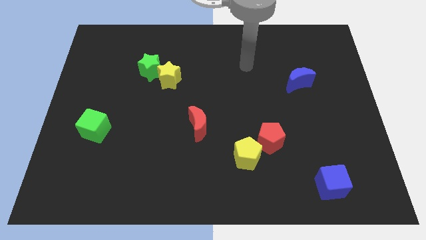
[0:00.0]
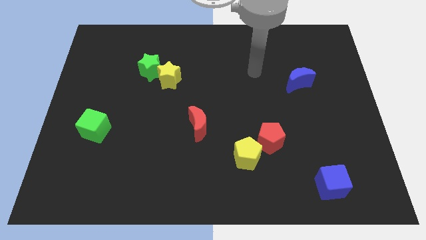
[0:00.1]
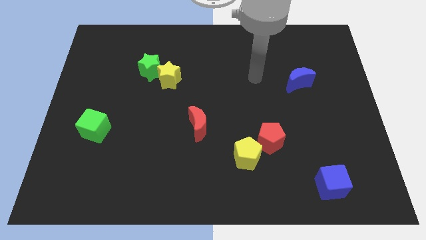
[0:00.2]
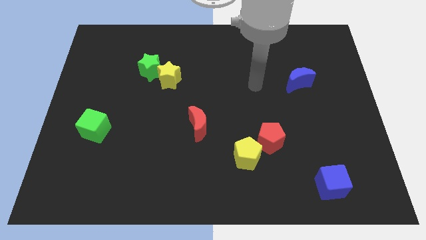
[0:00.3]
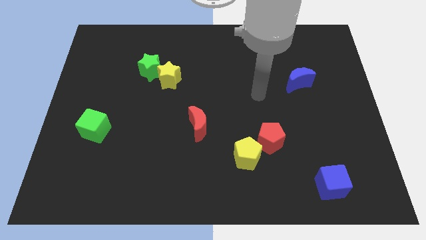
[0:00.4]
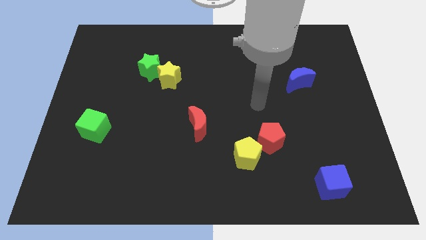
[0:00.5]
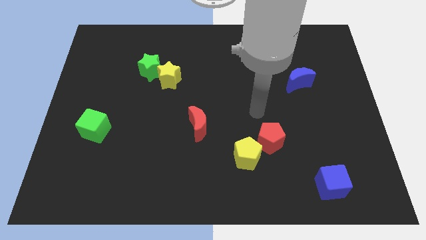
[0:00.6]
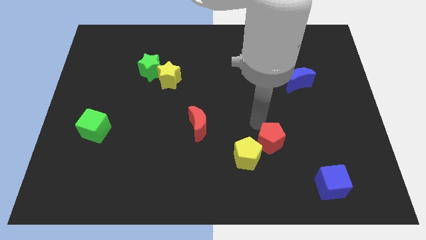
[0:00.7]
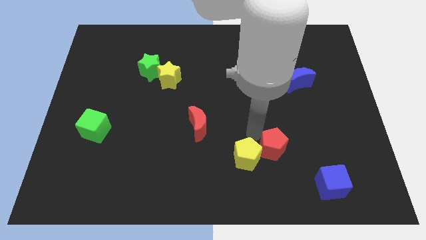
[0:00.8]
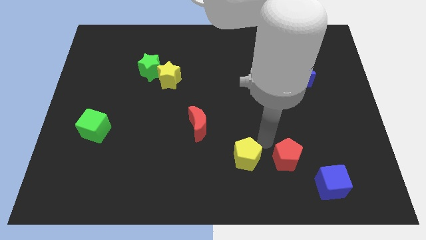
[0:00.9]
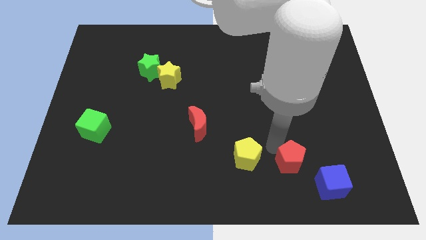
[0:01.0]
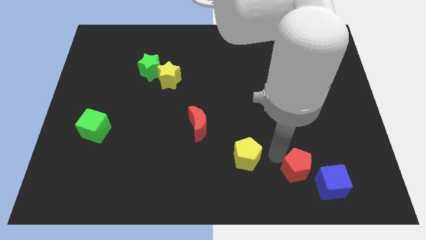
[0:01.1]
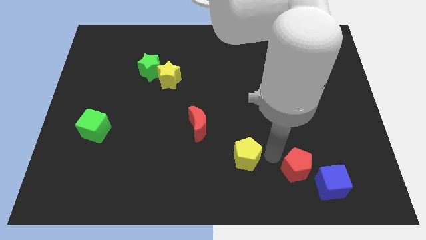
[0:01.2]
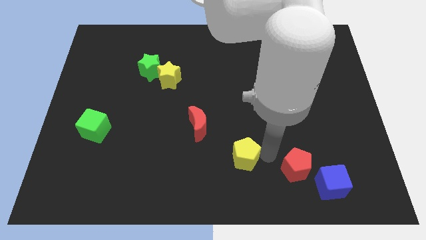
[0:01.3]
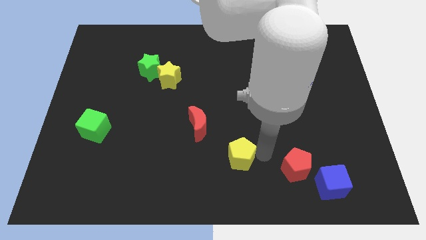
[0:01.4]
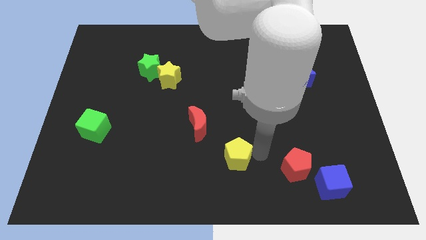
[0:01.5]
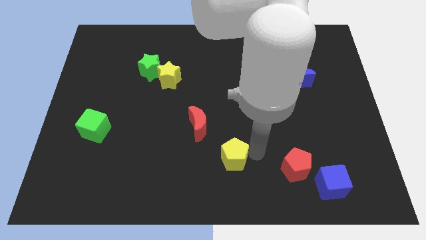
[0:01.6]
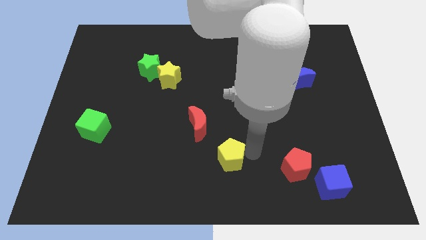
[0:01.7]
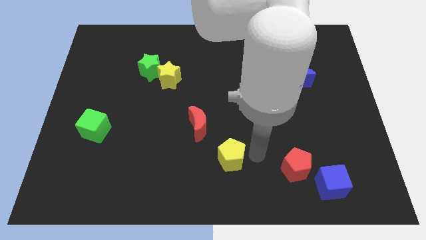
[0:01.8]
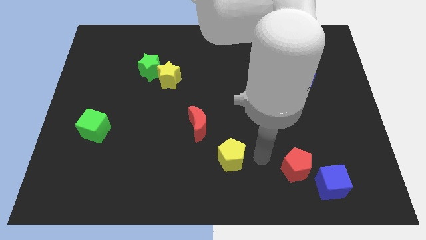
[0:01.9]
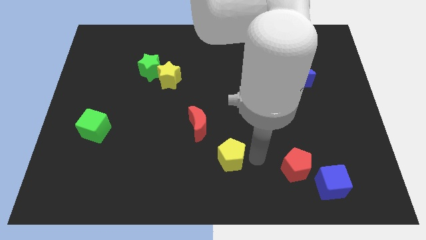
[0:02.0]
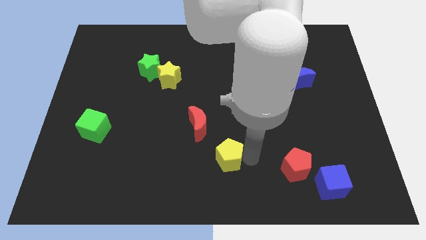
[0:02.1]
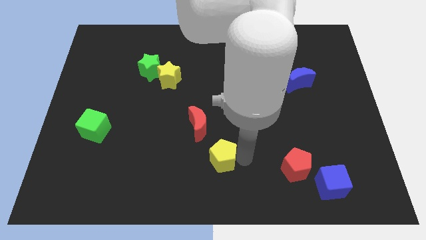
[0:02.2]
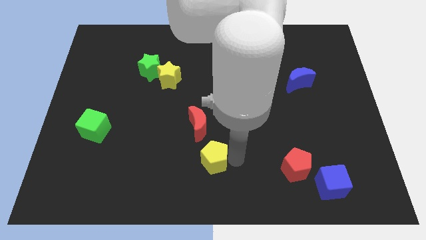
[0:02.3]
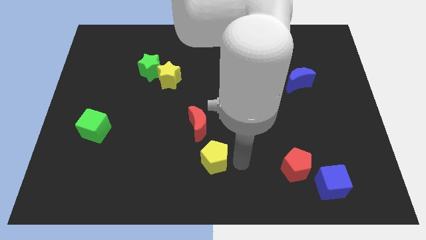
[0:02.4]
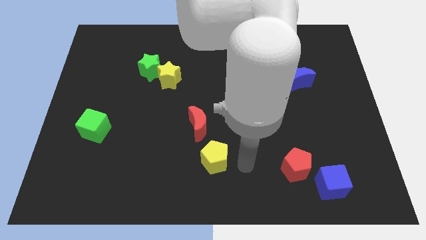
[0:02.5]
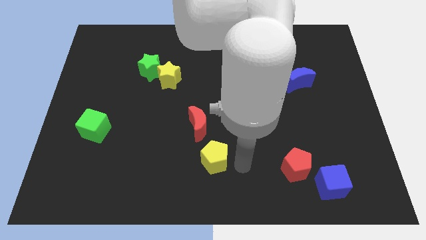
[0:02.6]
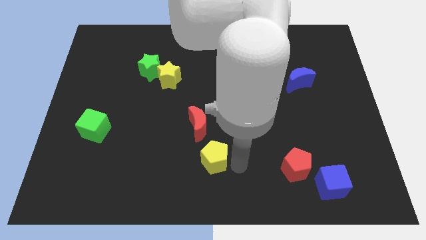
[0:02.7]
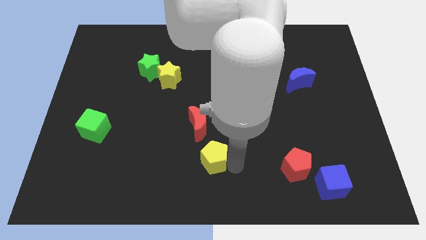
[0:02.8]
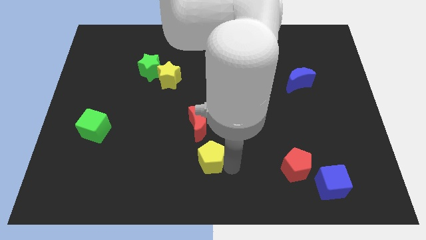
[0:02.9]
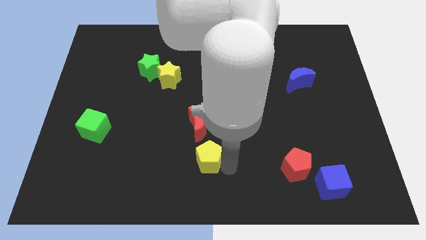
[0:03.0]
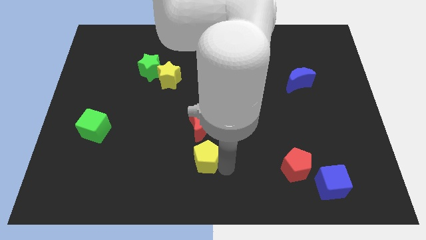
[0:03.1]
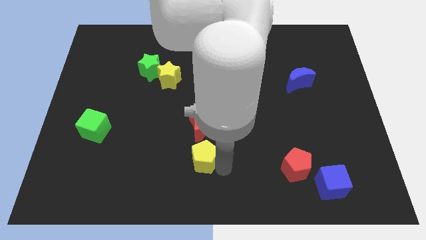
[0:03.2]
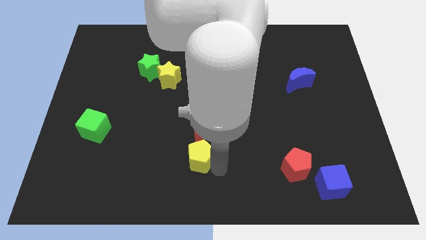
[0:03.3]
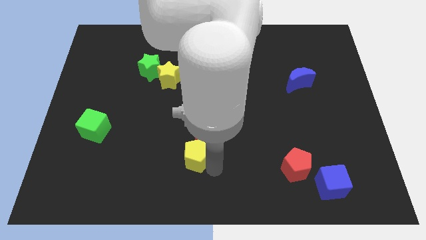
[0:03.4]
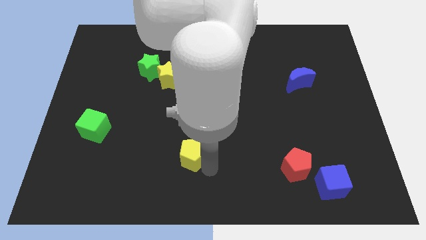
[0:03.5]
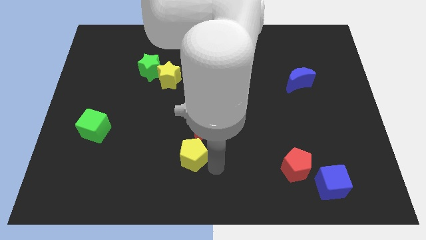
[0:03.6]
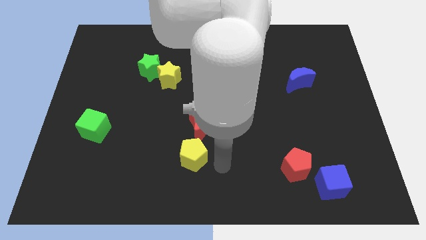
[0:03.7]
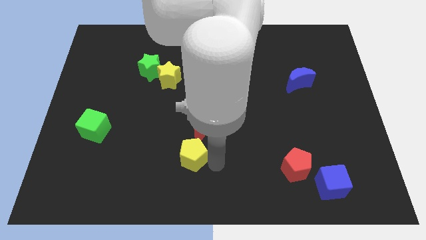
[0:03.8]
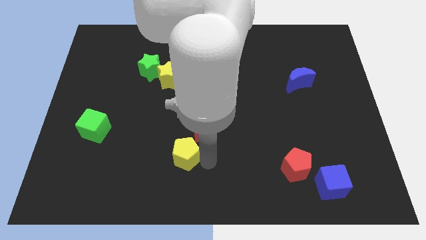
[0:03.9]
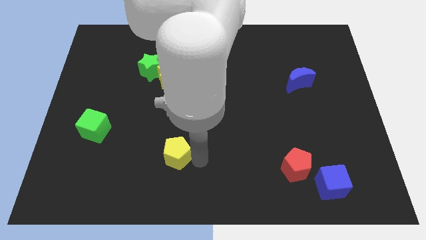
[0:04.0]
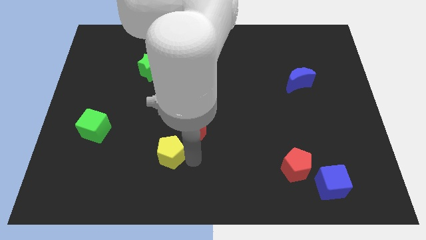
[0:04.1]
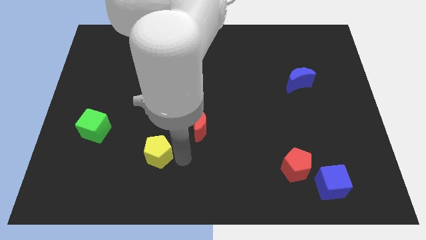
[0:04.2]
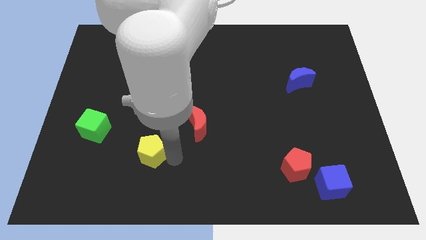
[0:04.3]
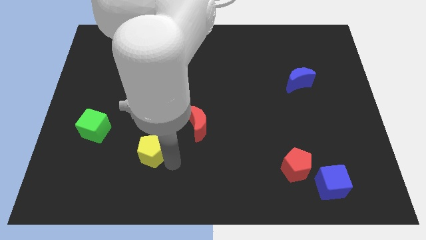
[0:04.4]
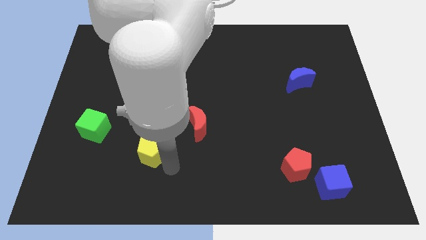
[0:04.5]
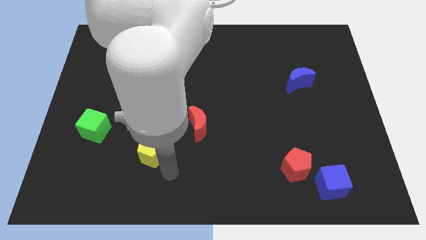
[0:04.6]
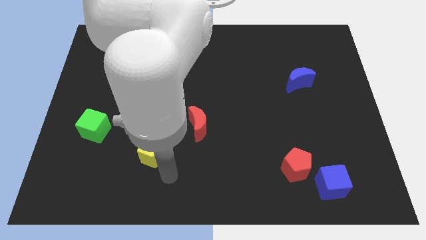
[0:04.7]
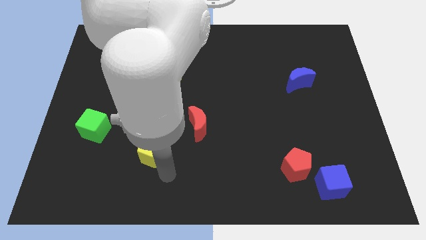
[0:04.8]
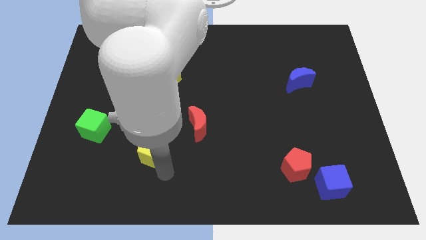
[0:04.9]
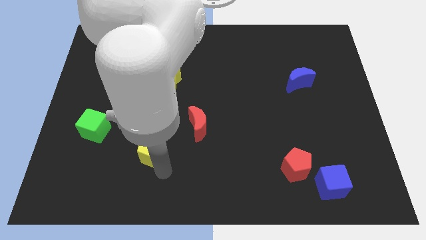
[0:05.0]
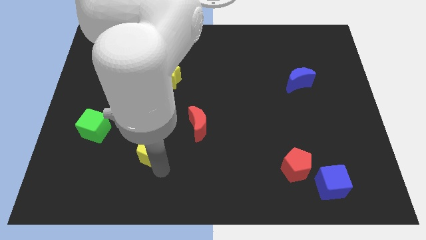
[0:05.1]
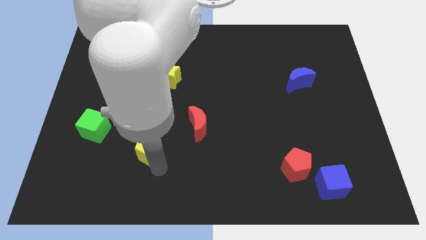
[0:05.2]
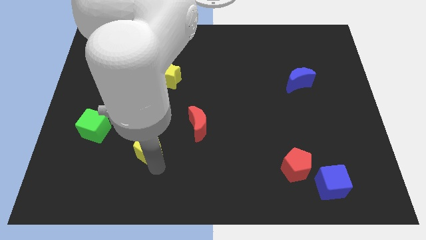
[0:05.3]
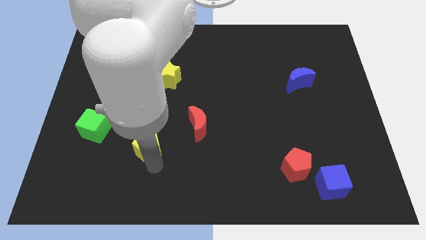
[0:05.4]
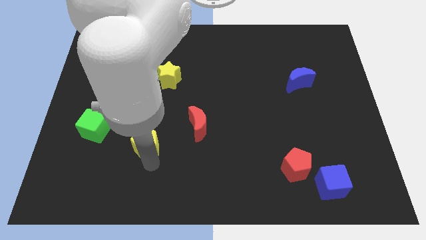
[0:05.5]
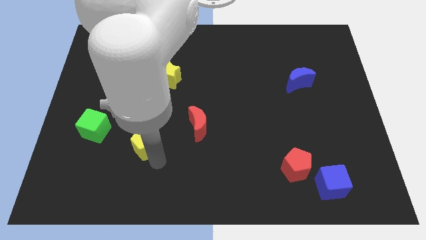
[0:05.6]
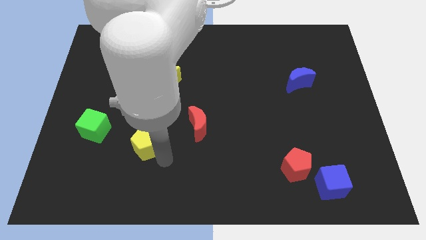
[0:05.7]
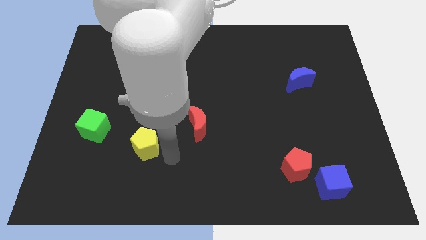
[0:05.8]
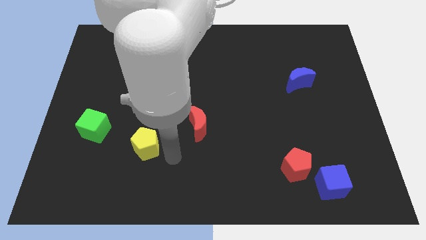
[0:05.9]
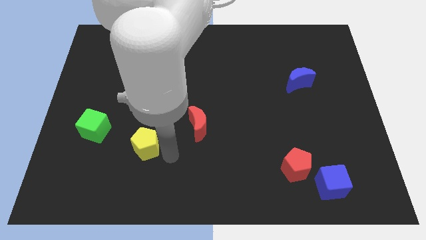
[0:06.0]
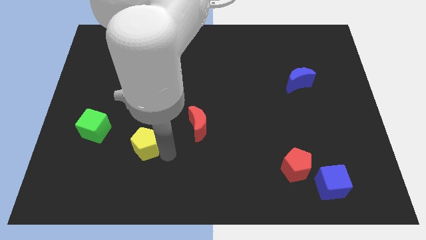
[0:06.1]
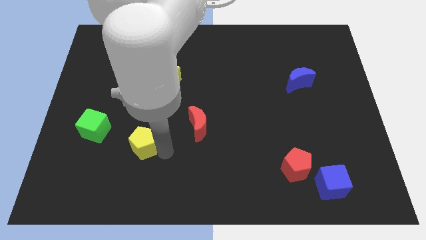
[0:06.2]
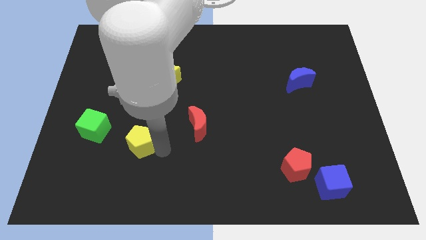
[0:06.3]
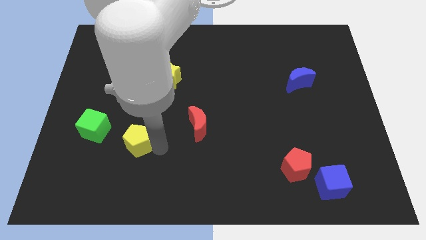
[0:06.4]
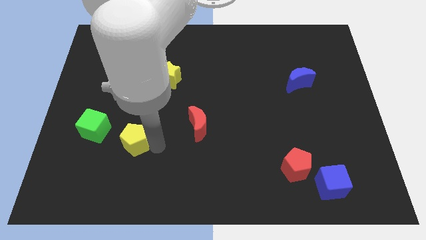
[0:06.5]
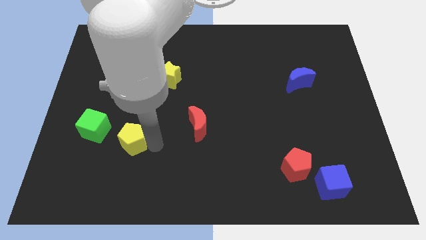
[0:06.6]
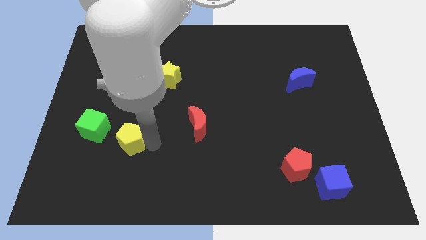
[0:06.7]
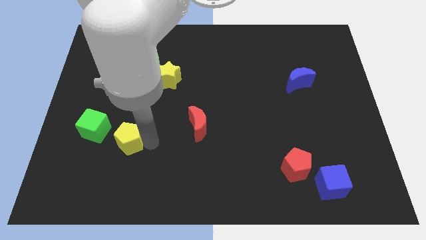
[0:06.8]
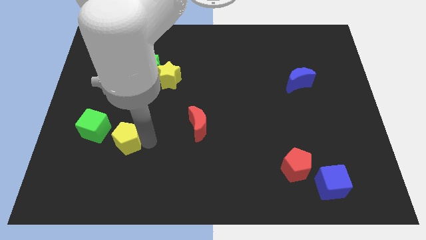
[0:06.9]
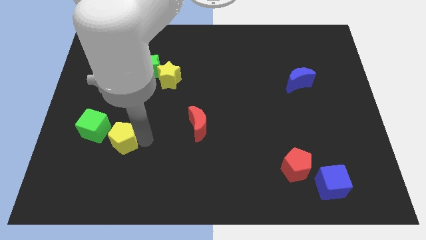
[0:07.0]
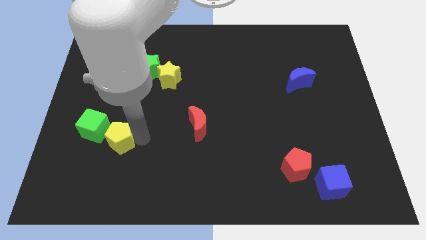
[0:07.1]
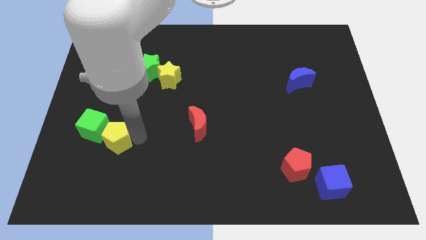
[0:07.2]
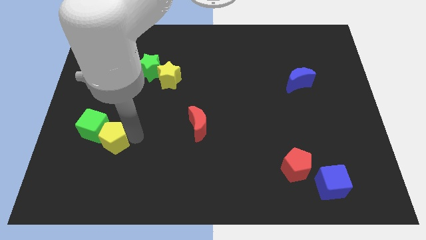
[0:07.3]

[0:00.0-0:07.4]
put the yellow pentagon close to the green cube
